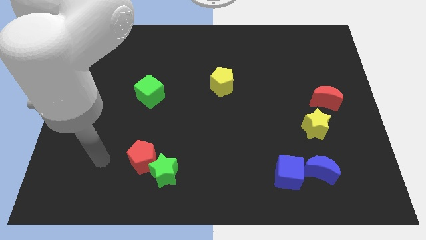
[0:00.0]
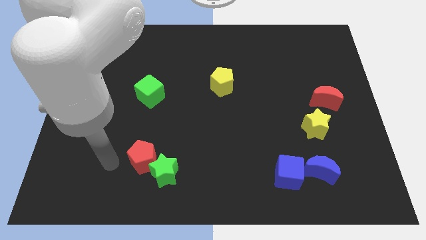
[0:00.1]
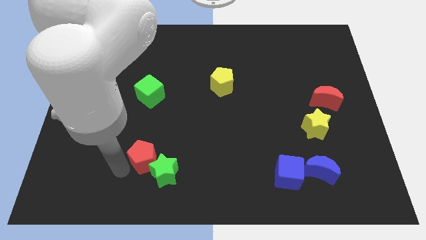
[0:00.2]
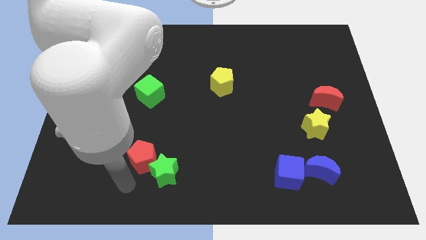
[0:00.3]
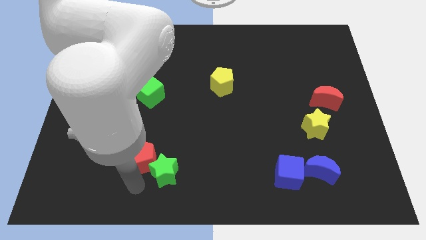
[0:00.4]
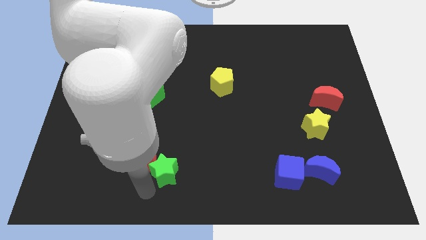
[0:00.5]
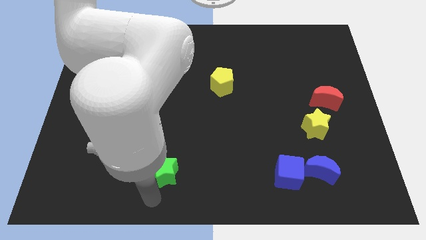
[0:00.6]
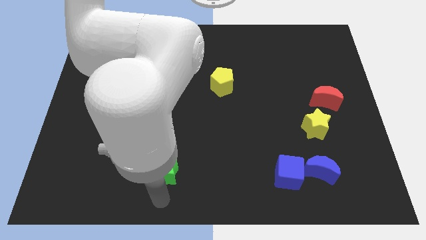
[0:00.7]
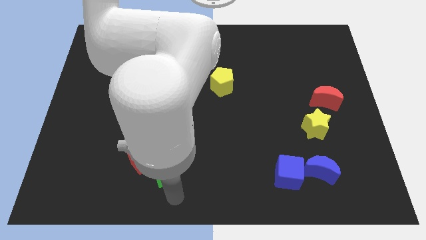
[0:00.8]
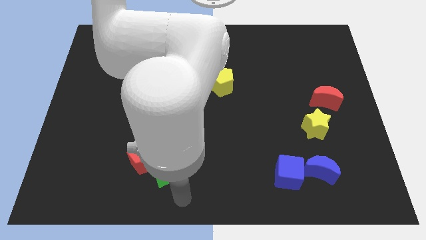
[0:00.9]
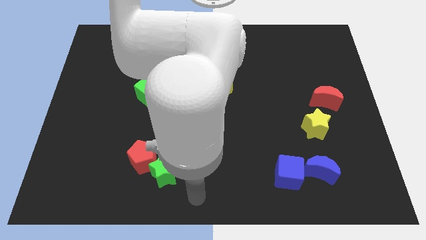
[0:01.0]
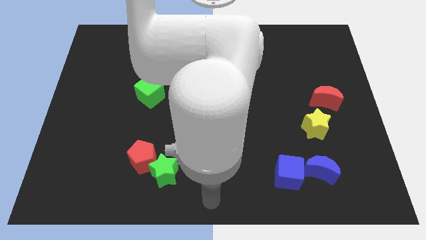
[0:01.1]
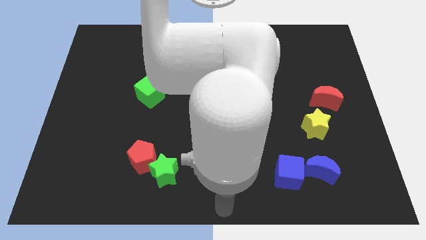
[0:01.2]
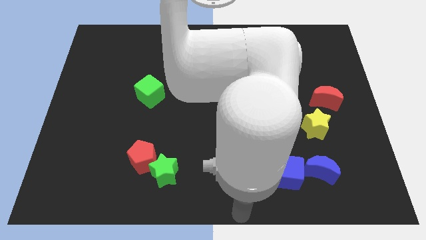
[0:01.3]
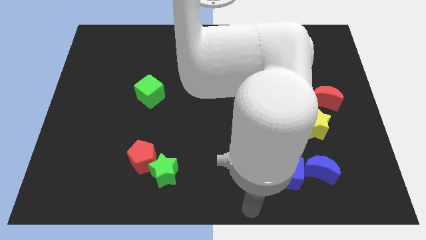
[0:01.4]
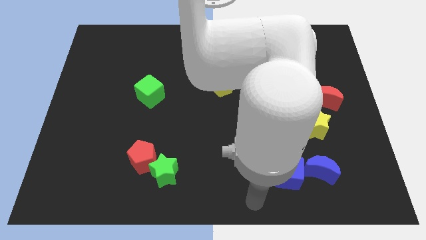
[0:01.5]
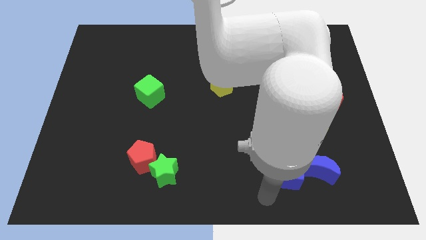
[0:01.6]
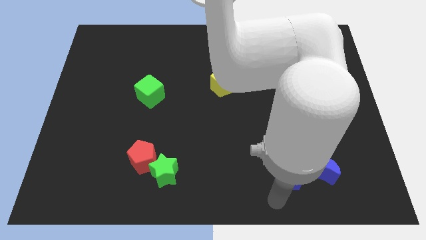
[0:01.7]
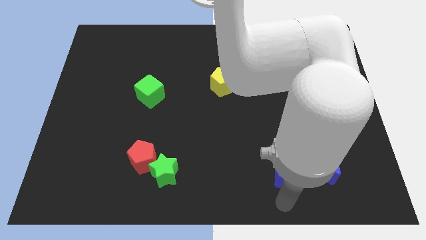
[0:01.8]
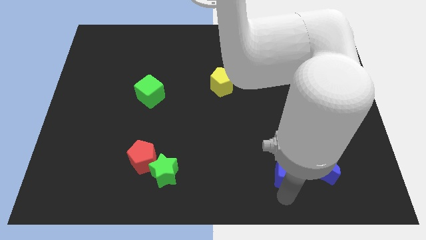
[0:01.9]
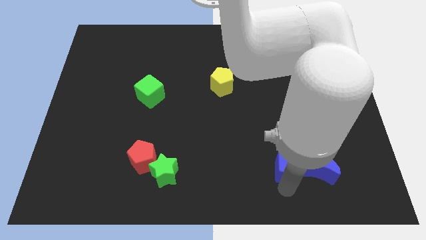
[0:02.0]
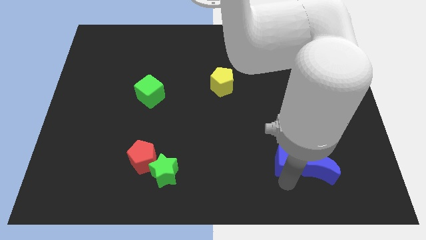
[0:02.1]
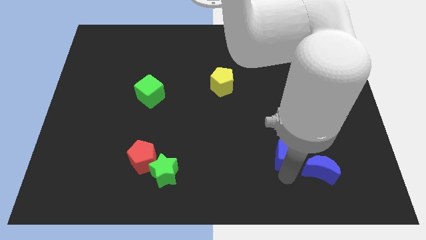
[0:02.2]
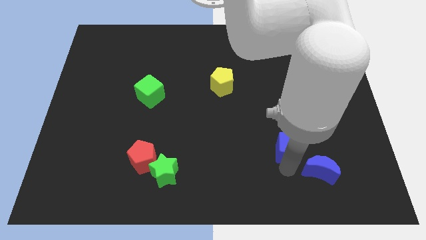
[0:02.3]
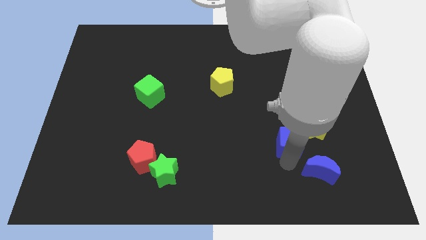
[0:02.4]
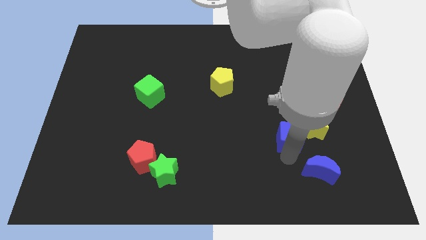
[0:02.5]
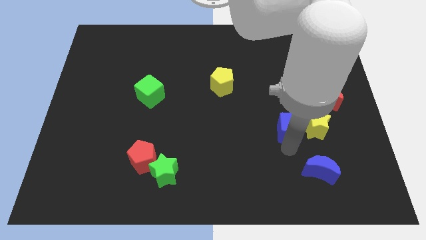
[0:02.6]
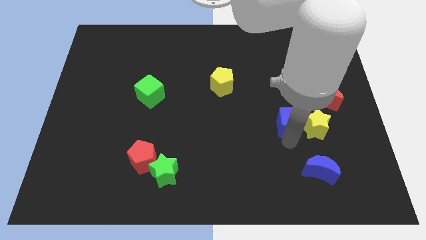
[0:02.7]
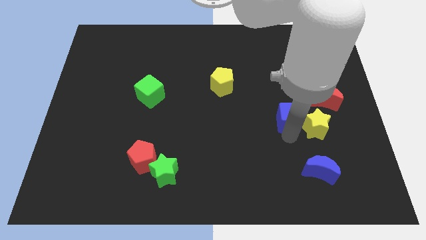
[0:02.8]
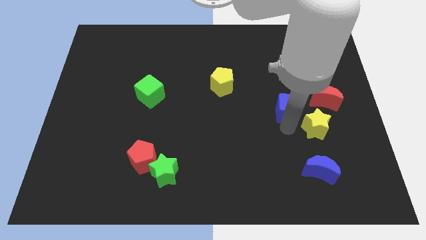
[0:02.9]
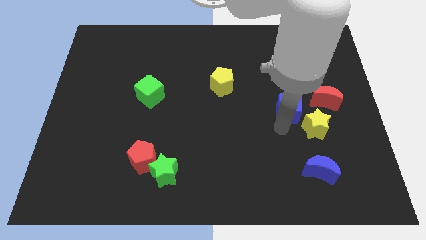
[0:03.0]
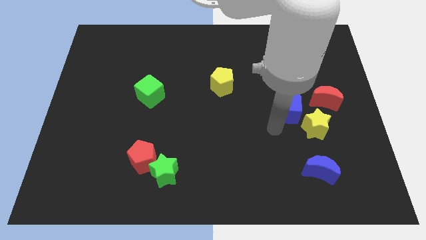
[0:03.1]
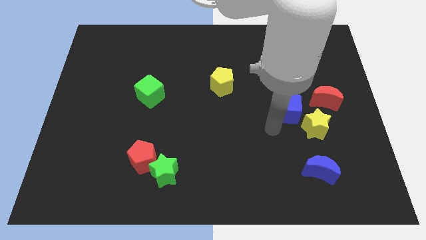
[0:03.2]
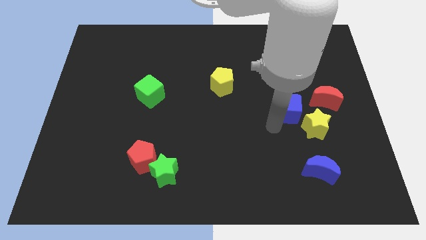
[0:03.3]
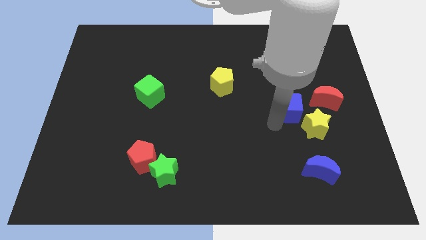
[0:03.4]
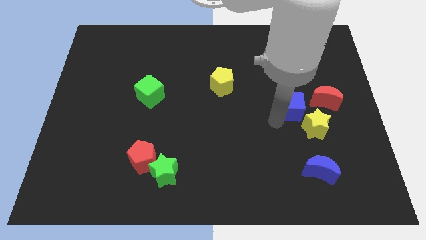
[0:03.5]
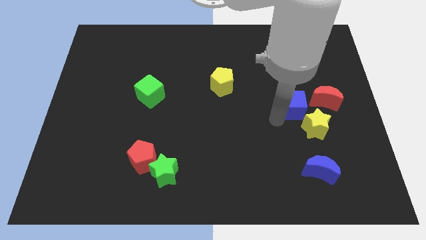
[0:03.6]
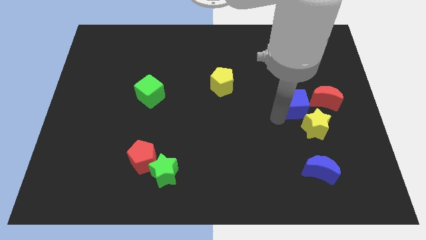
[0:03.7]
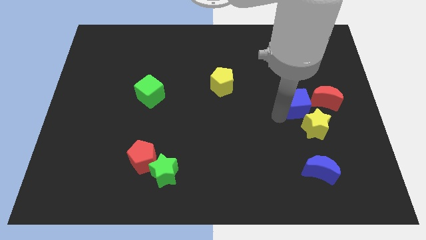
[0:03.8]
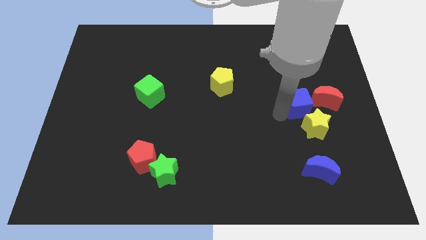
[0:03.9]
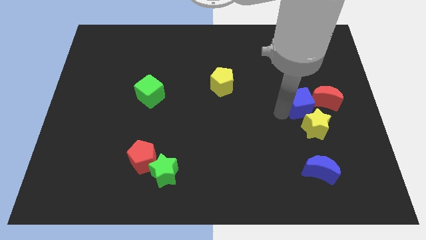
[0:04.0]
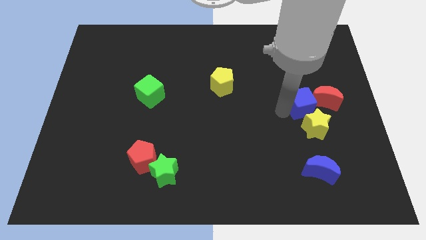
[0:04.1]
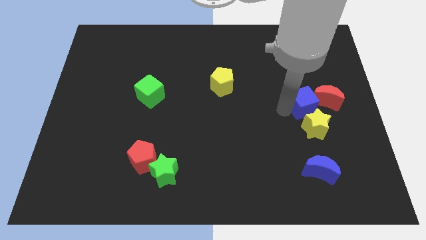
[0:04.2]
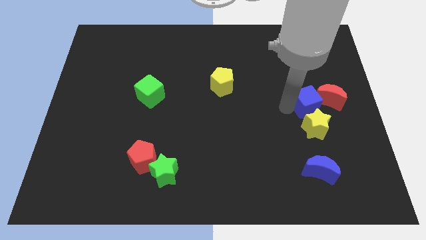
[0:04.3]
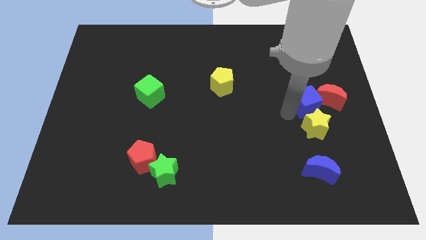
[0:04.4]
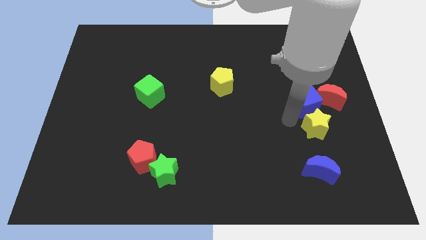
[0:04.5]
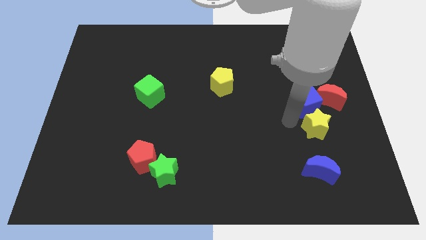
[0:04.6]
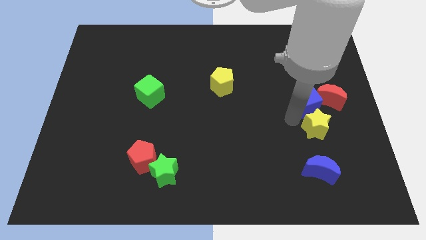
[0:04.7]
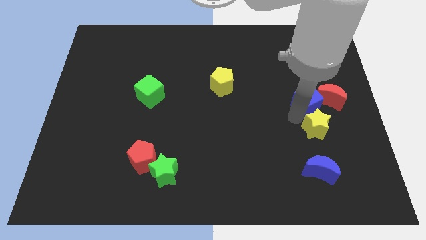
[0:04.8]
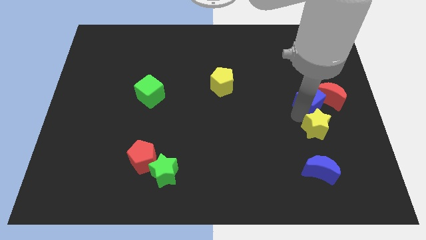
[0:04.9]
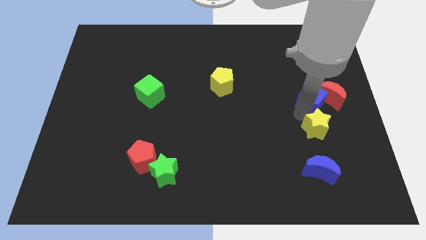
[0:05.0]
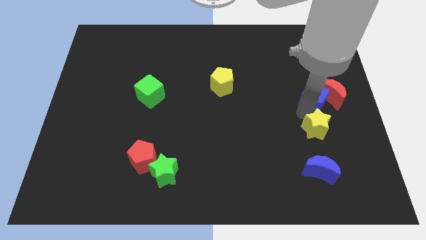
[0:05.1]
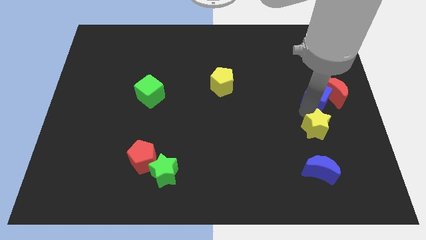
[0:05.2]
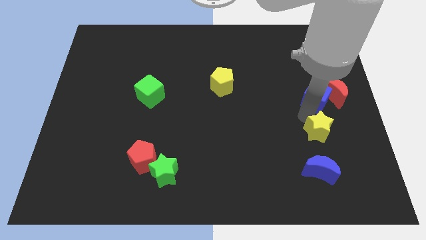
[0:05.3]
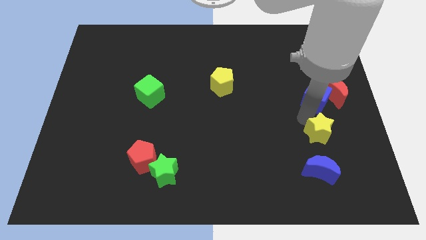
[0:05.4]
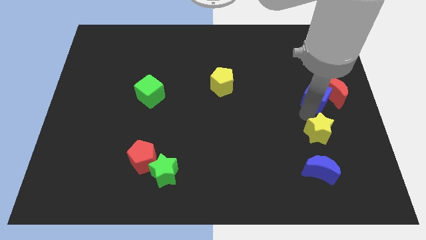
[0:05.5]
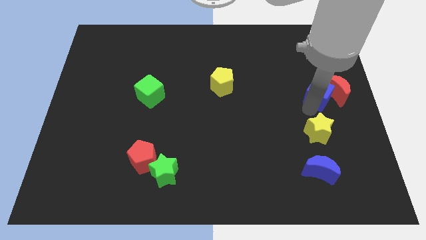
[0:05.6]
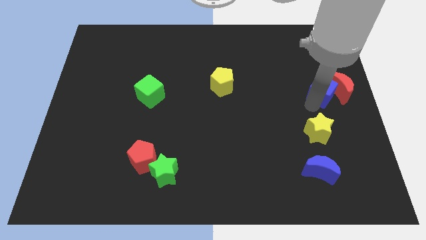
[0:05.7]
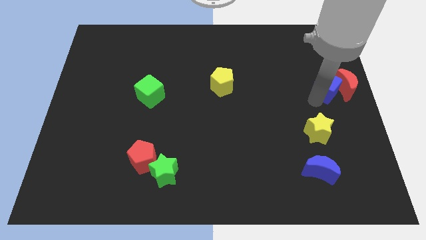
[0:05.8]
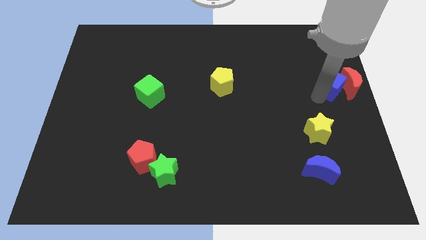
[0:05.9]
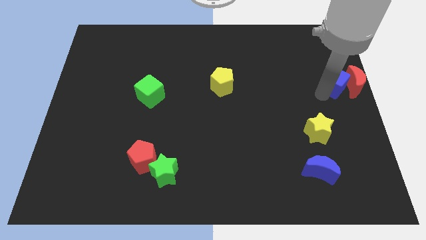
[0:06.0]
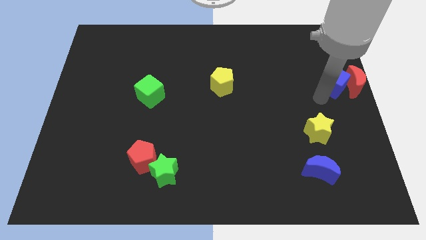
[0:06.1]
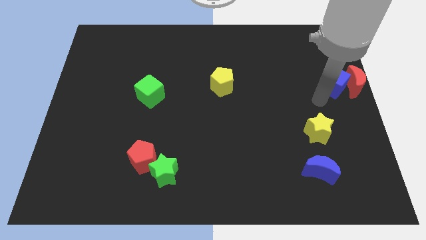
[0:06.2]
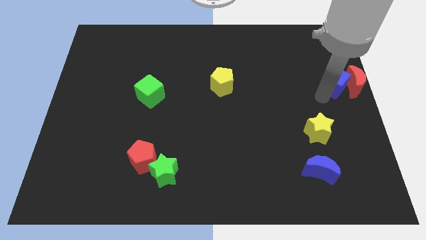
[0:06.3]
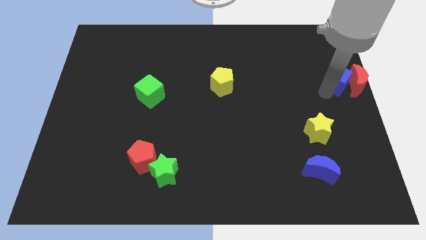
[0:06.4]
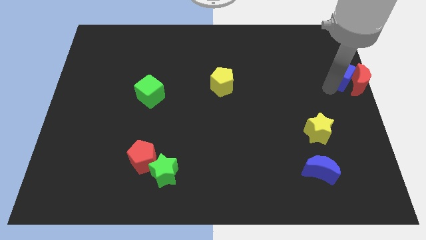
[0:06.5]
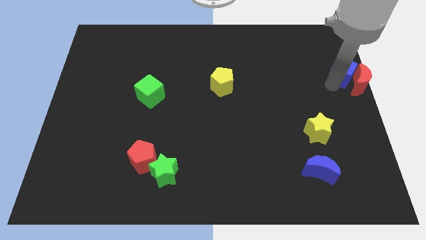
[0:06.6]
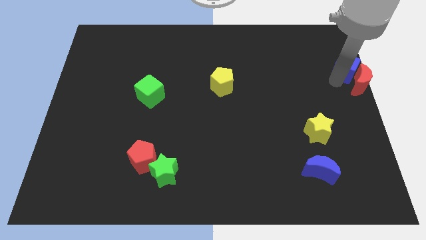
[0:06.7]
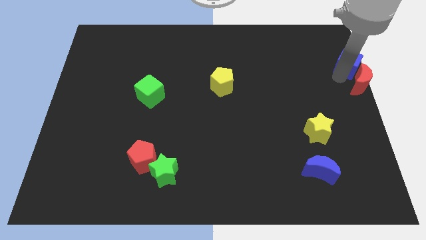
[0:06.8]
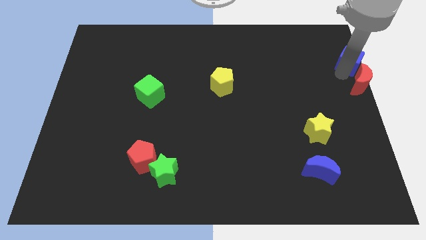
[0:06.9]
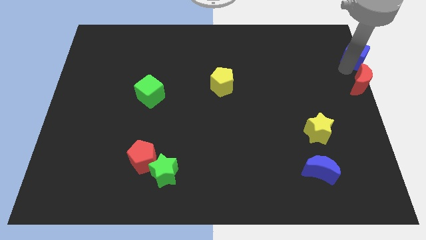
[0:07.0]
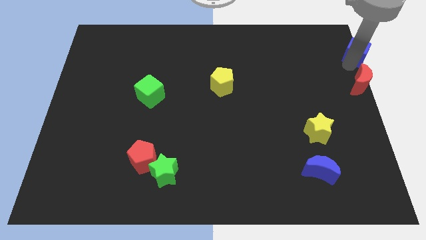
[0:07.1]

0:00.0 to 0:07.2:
put the blue cube to the top right of the board
